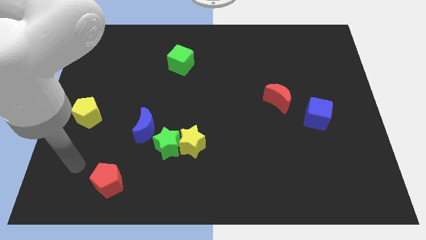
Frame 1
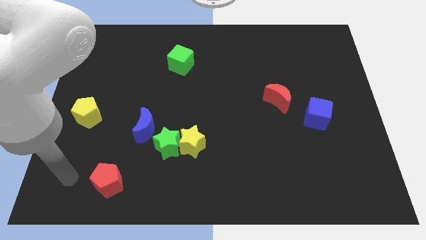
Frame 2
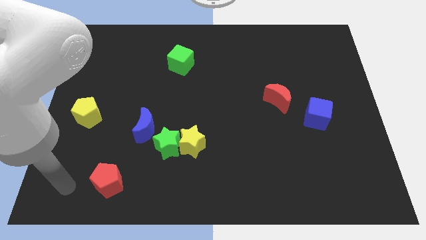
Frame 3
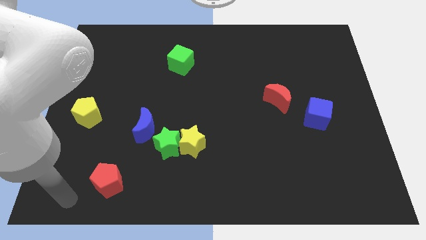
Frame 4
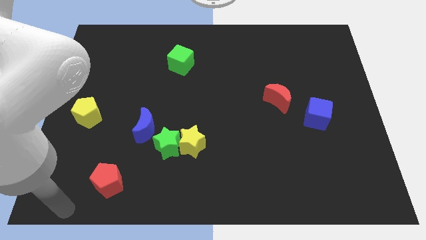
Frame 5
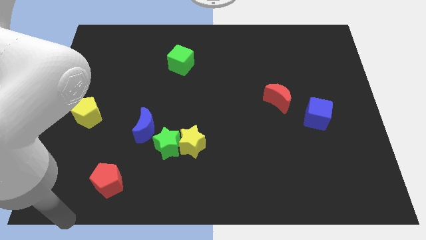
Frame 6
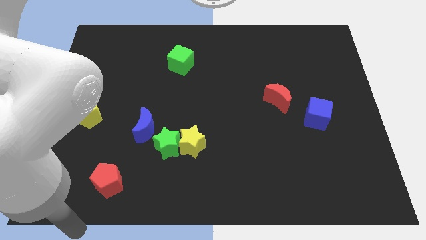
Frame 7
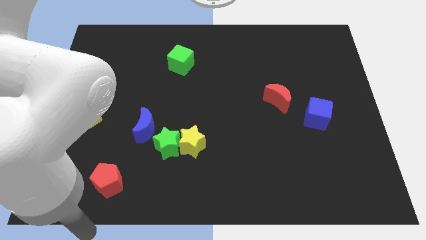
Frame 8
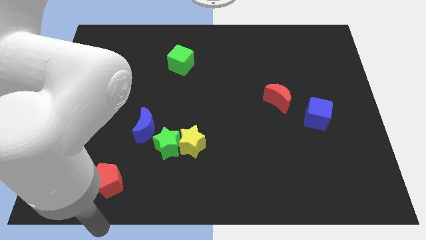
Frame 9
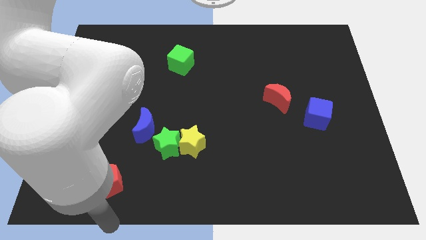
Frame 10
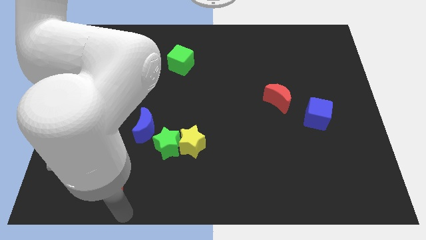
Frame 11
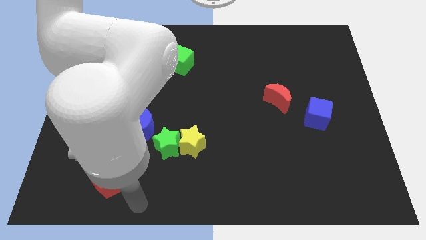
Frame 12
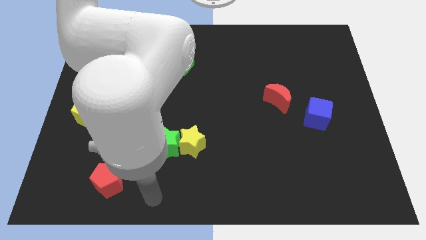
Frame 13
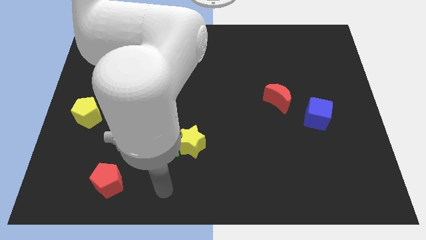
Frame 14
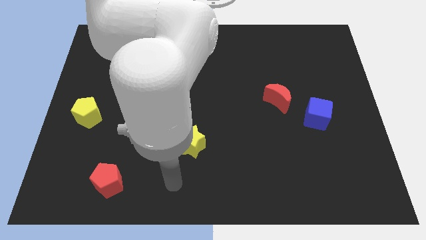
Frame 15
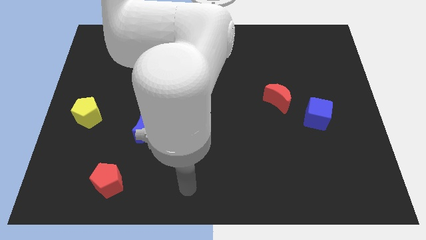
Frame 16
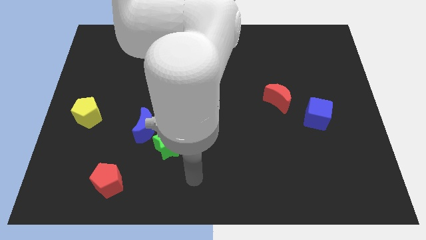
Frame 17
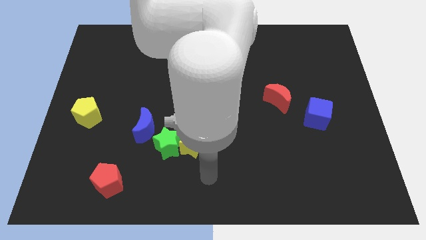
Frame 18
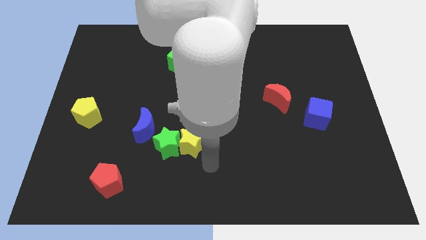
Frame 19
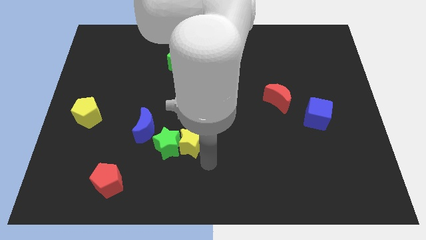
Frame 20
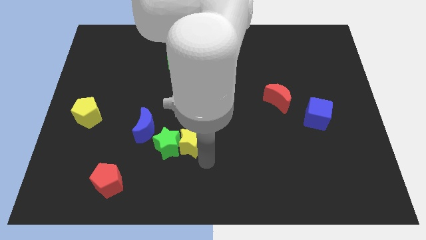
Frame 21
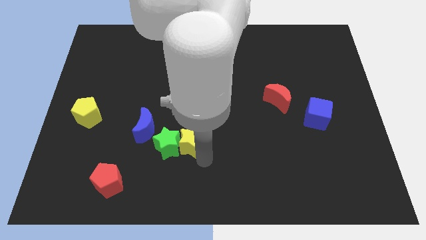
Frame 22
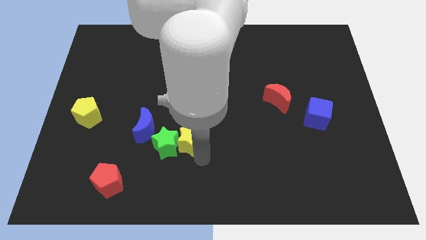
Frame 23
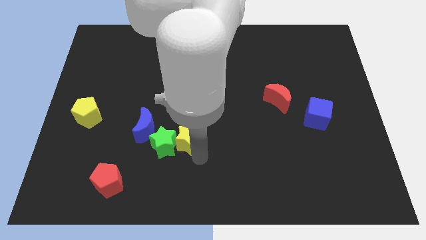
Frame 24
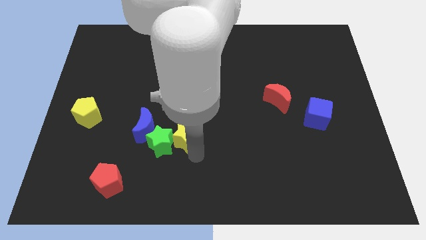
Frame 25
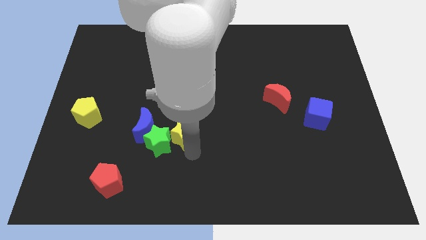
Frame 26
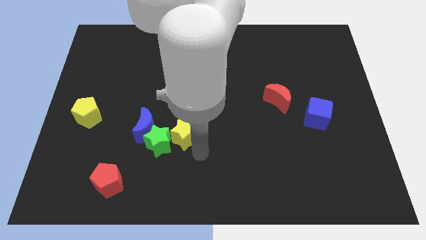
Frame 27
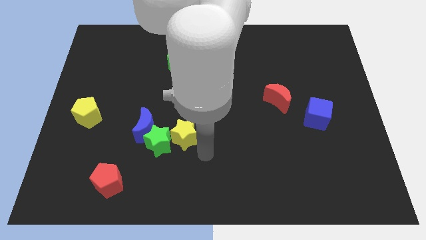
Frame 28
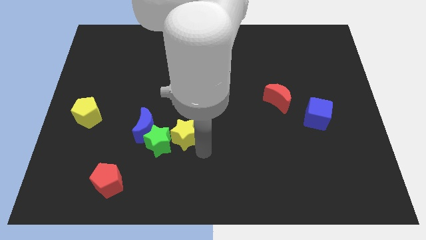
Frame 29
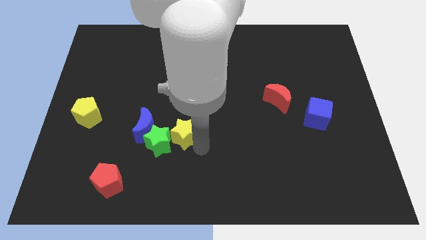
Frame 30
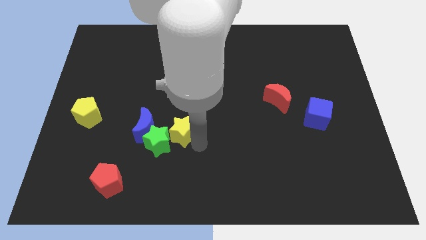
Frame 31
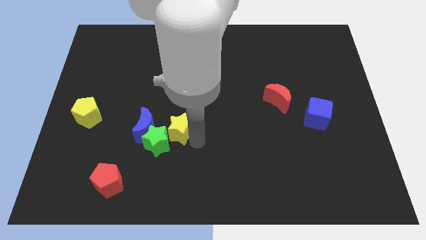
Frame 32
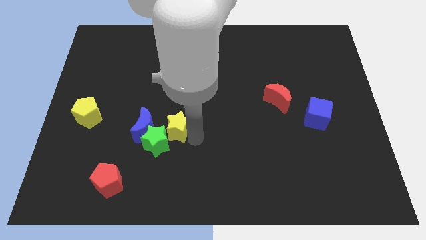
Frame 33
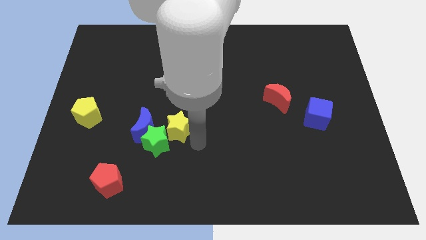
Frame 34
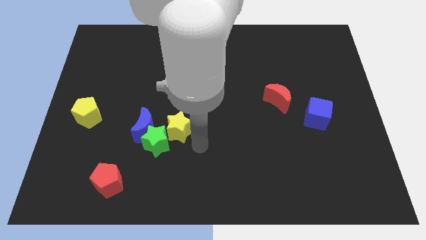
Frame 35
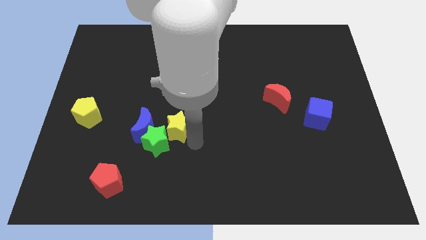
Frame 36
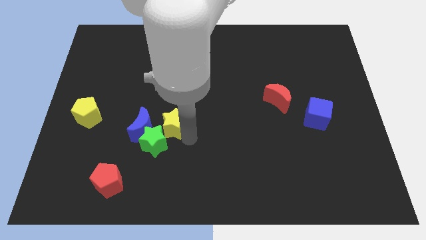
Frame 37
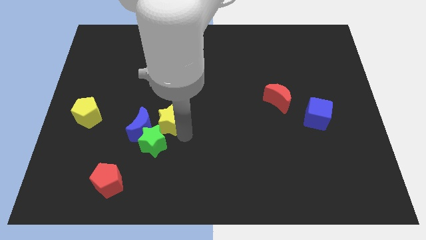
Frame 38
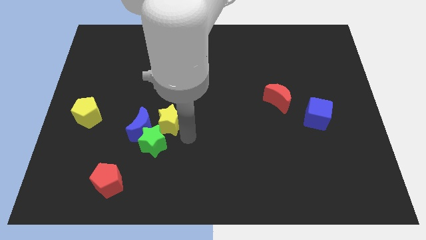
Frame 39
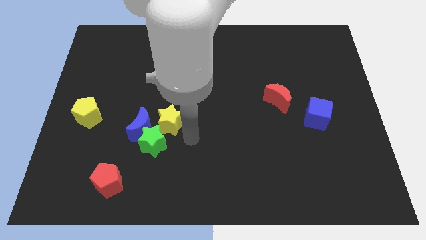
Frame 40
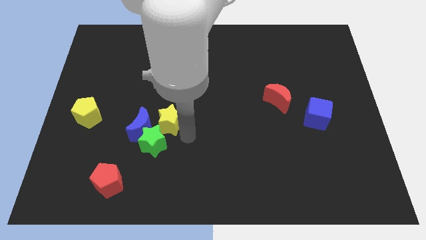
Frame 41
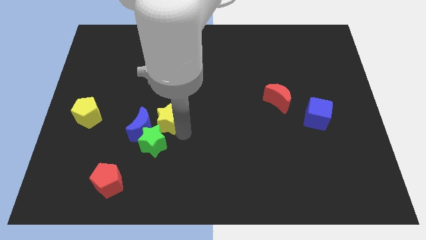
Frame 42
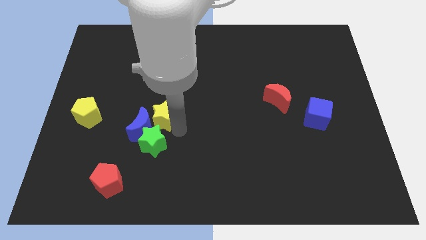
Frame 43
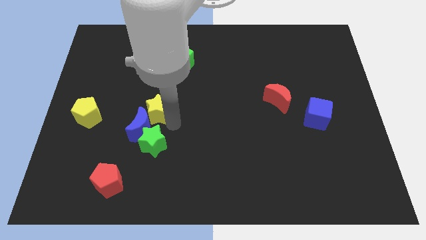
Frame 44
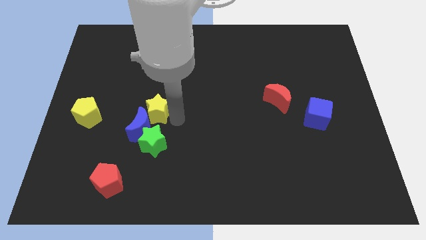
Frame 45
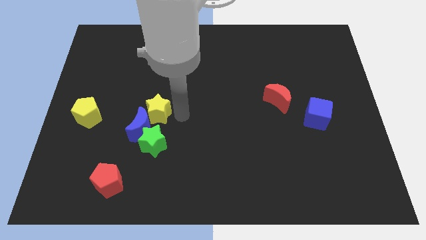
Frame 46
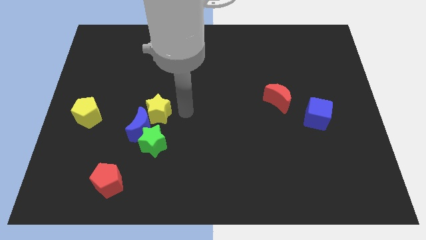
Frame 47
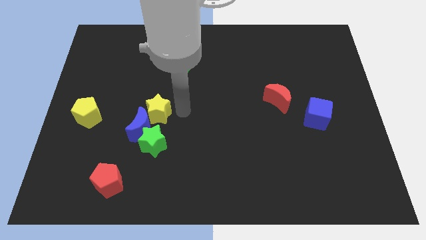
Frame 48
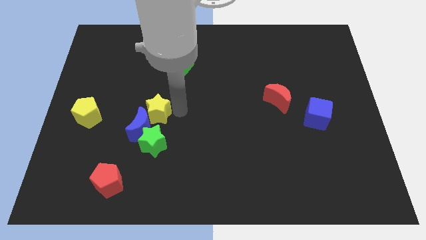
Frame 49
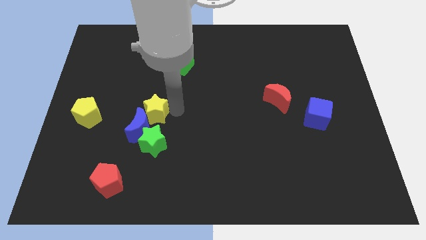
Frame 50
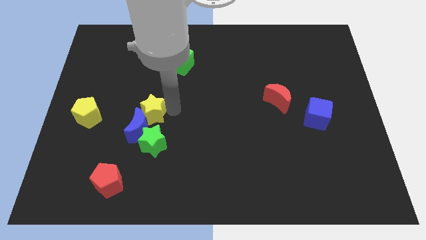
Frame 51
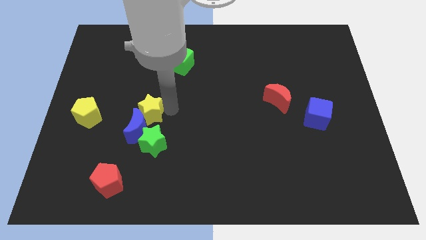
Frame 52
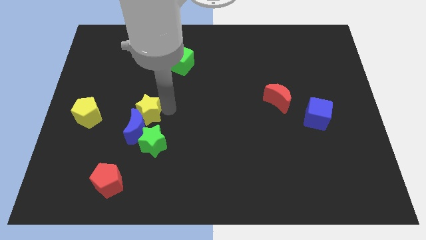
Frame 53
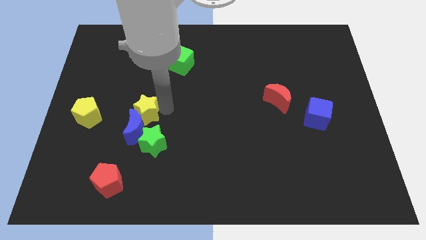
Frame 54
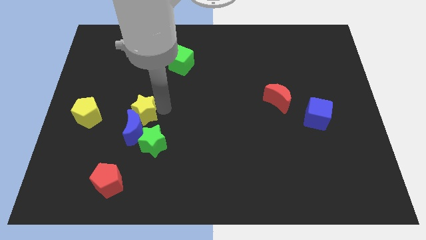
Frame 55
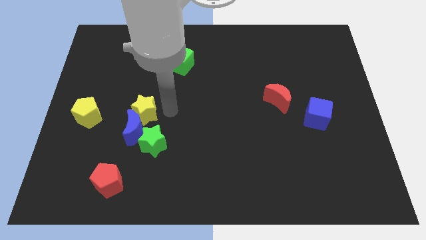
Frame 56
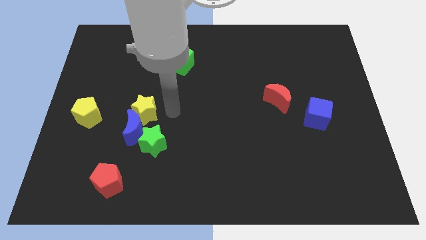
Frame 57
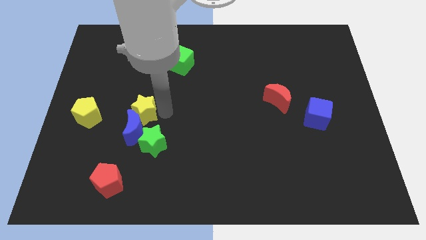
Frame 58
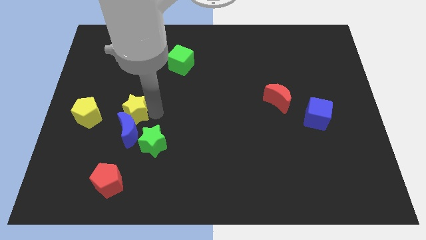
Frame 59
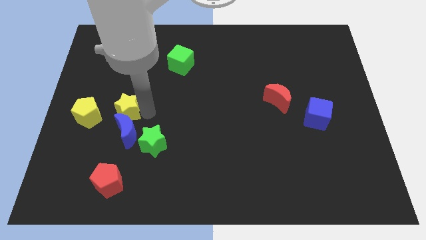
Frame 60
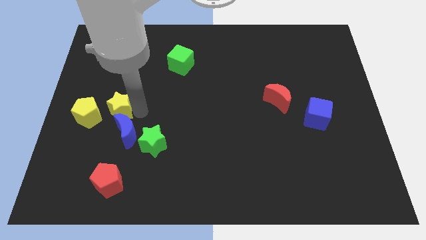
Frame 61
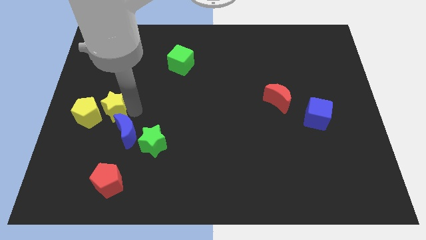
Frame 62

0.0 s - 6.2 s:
move the yellow star to the yellow pentagon
